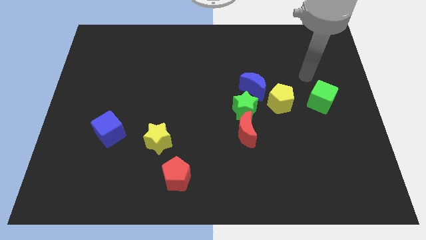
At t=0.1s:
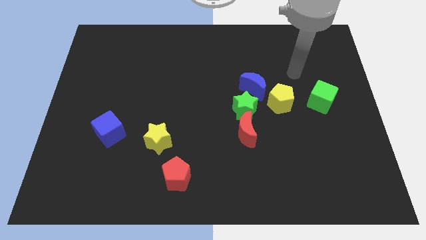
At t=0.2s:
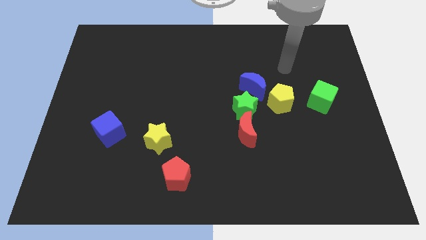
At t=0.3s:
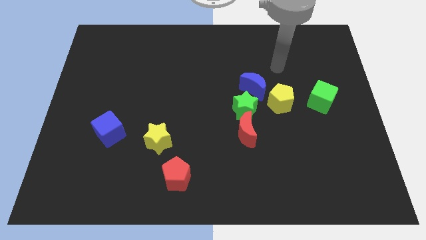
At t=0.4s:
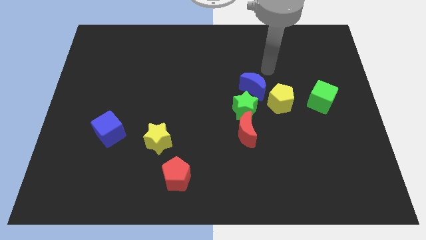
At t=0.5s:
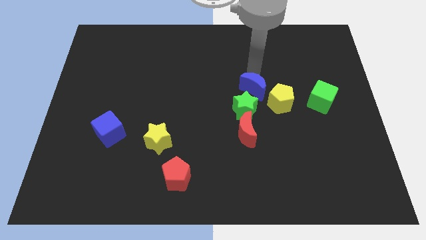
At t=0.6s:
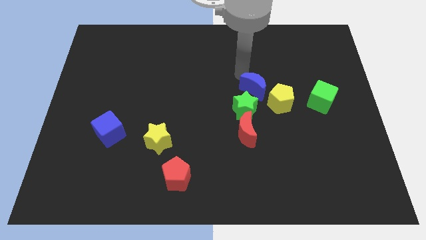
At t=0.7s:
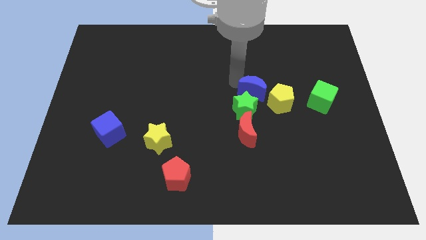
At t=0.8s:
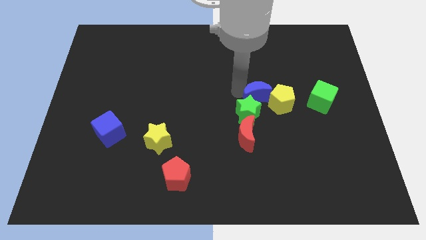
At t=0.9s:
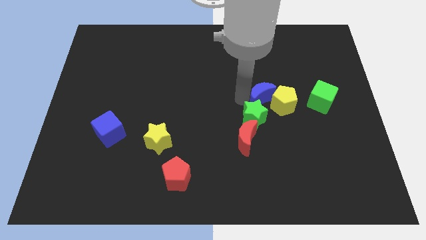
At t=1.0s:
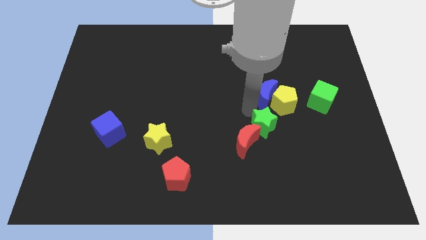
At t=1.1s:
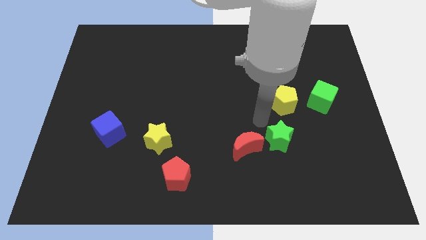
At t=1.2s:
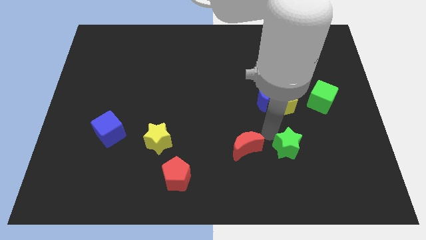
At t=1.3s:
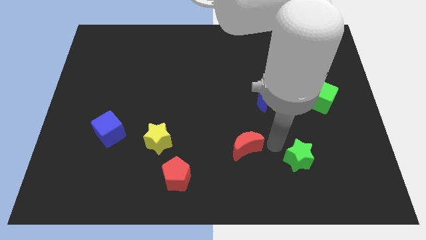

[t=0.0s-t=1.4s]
move the red moon away from the green star

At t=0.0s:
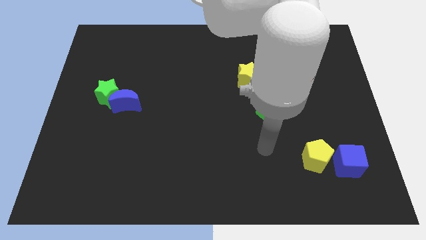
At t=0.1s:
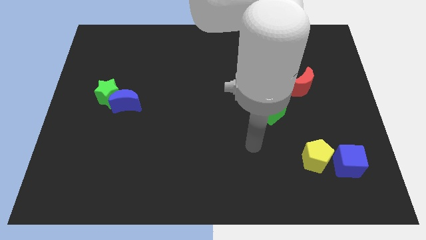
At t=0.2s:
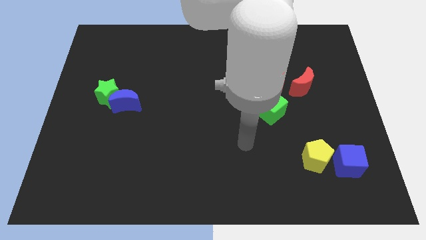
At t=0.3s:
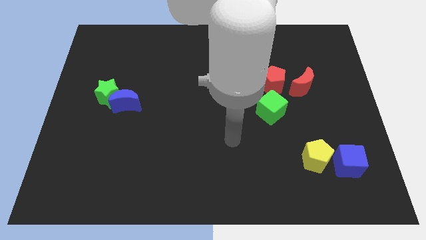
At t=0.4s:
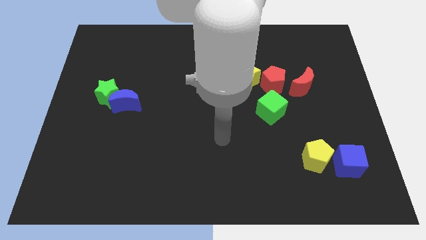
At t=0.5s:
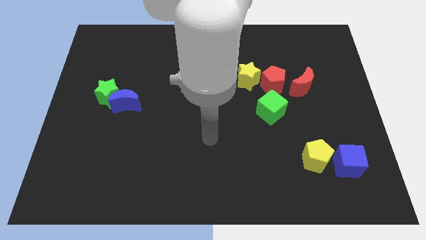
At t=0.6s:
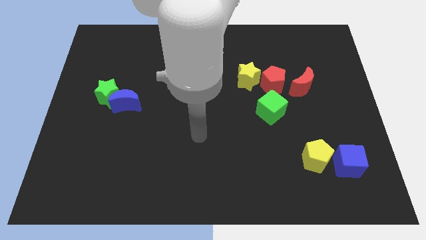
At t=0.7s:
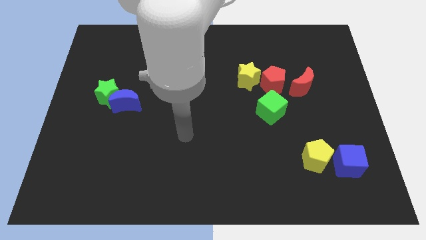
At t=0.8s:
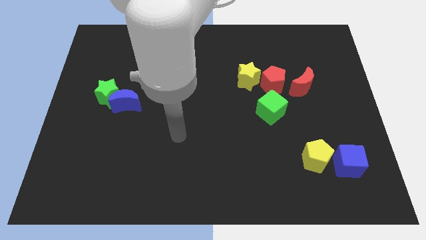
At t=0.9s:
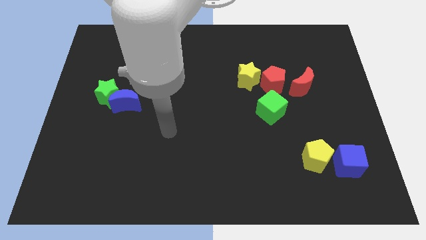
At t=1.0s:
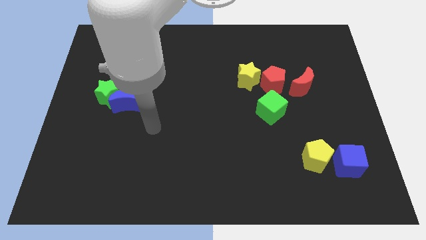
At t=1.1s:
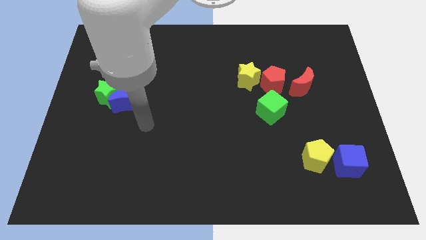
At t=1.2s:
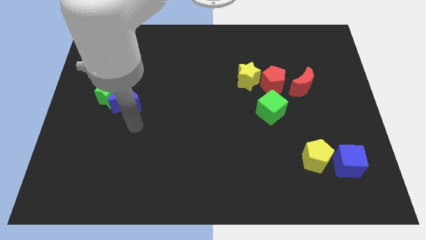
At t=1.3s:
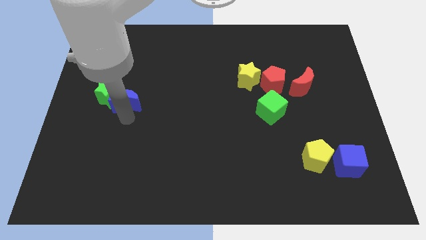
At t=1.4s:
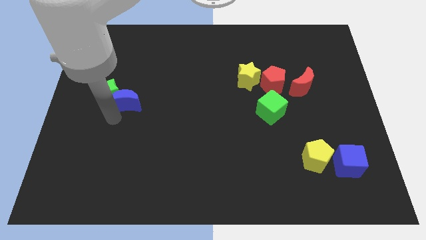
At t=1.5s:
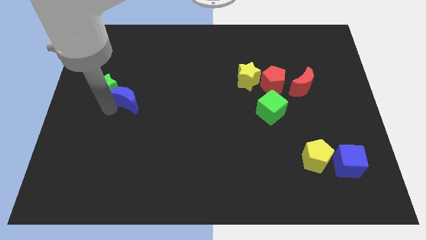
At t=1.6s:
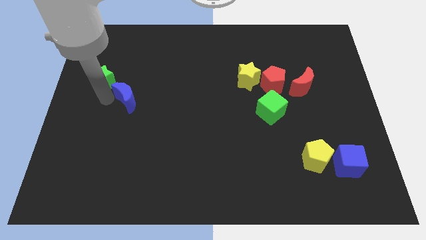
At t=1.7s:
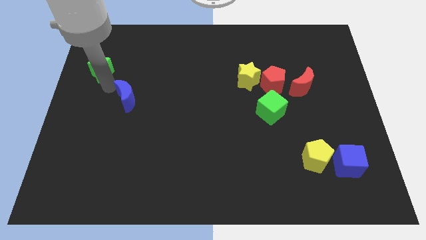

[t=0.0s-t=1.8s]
separate the blue moon from the green star

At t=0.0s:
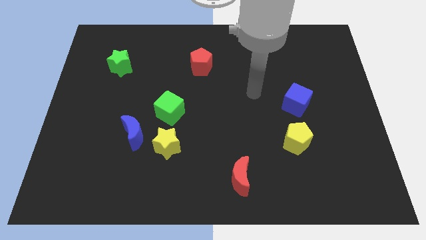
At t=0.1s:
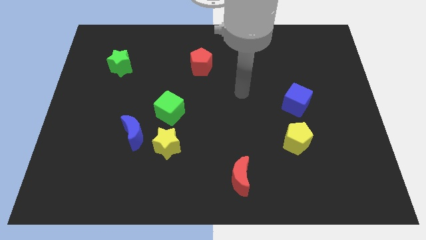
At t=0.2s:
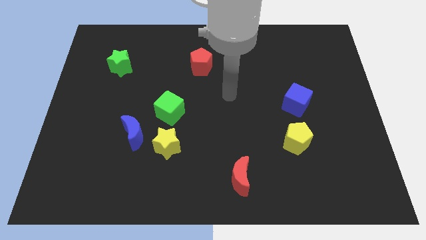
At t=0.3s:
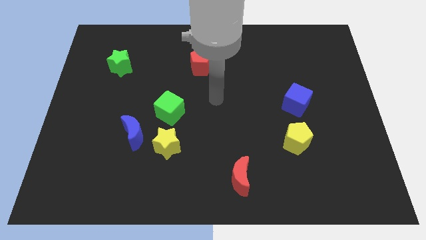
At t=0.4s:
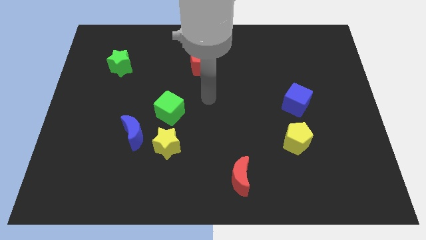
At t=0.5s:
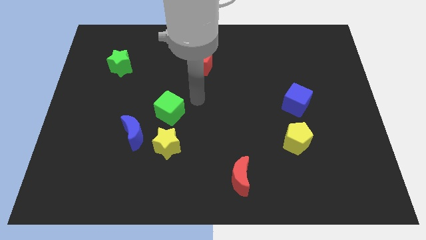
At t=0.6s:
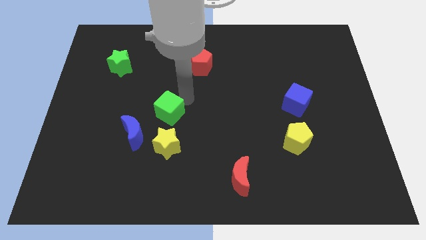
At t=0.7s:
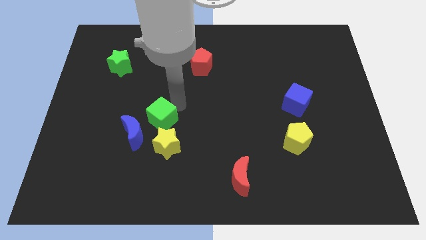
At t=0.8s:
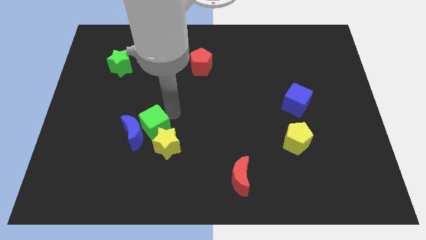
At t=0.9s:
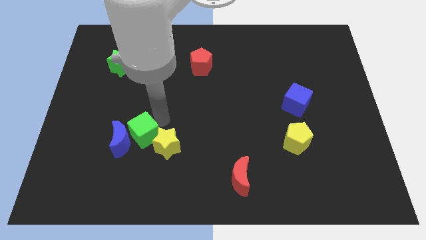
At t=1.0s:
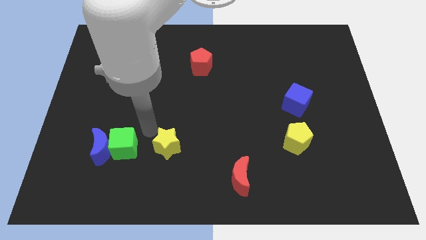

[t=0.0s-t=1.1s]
move the yellow star away from the blue moon and green cube

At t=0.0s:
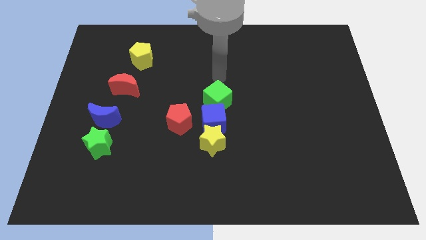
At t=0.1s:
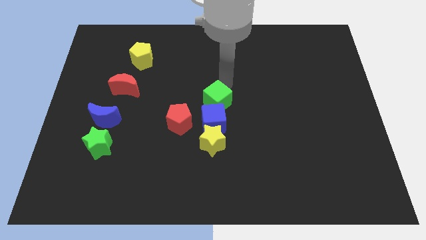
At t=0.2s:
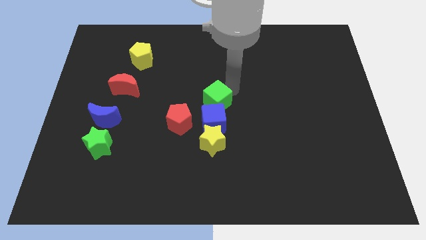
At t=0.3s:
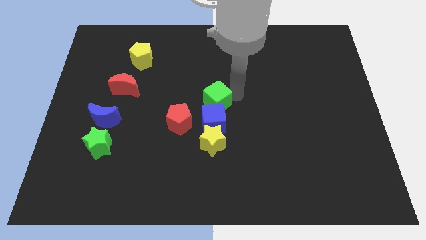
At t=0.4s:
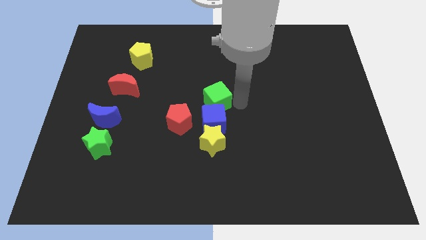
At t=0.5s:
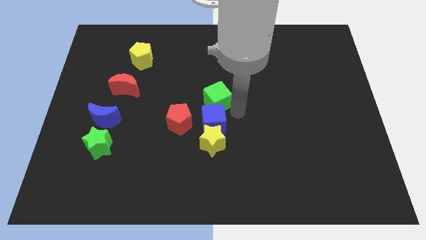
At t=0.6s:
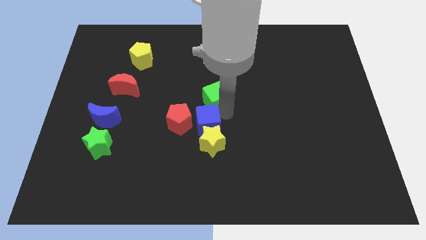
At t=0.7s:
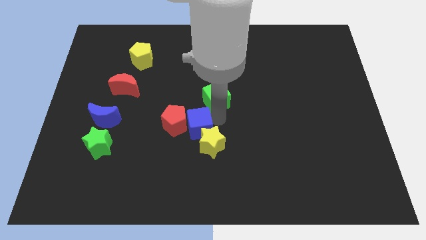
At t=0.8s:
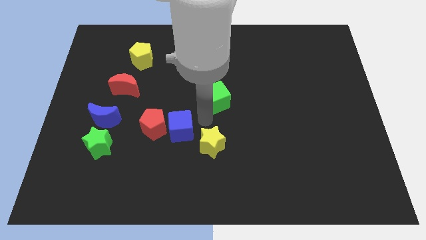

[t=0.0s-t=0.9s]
move the green cube away from the blue cube

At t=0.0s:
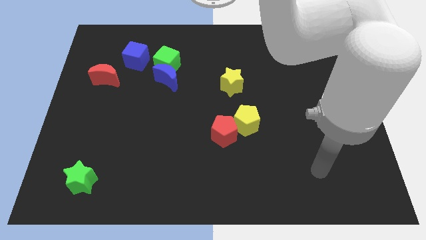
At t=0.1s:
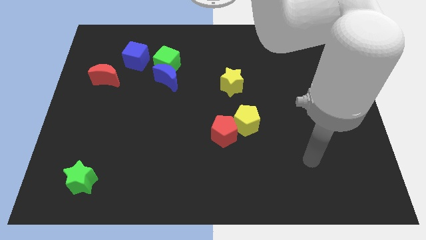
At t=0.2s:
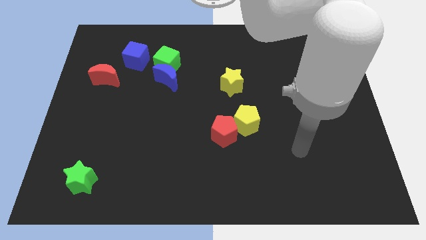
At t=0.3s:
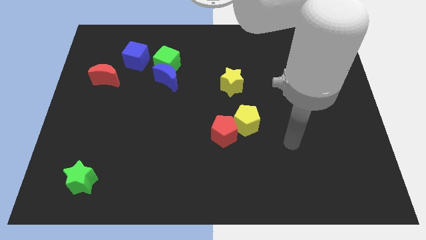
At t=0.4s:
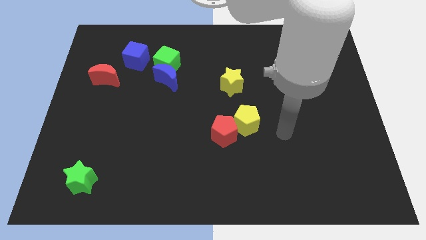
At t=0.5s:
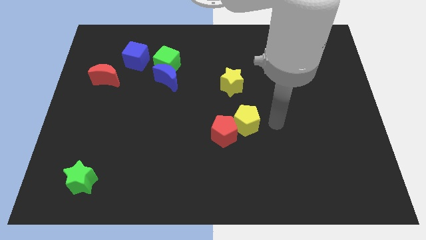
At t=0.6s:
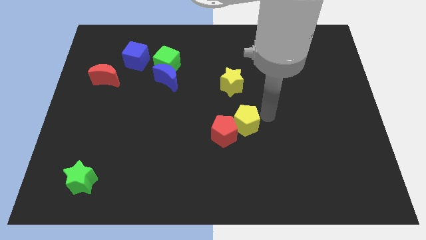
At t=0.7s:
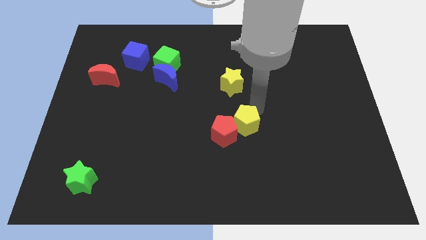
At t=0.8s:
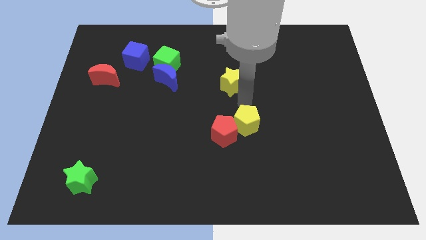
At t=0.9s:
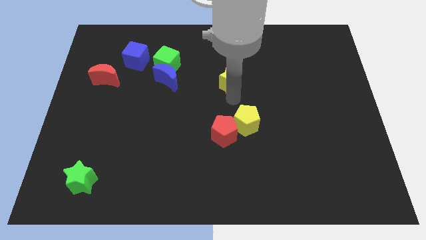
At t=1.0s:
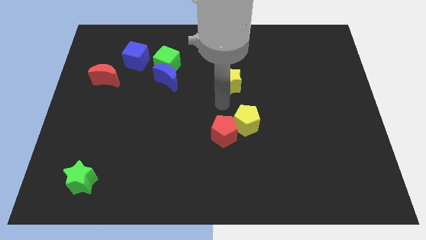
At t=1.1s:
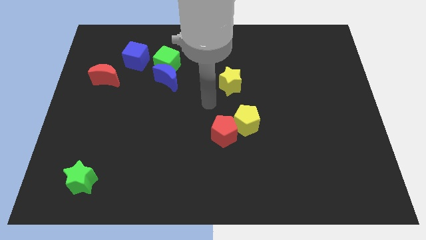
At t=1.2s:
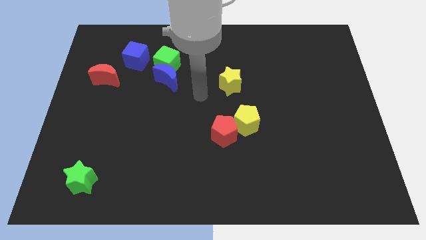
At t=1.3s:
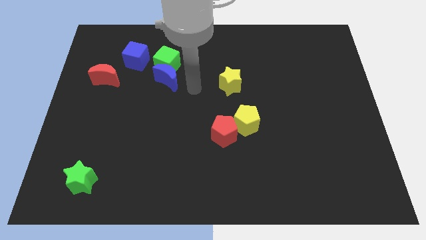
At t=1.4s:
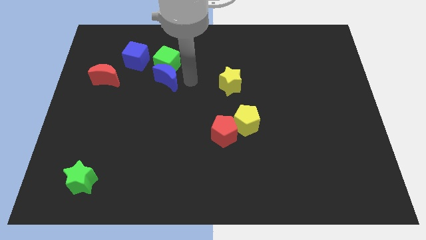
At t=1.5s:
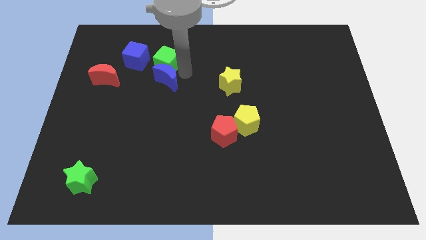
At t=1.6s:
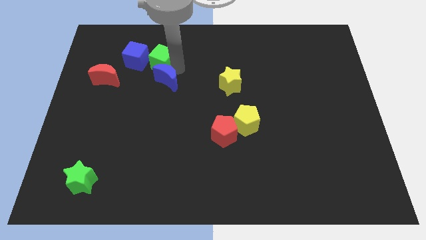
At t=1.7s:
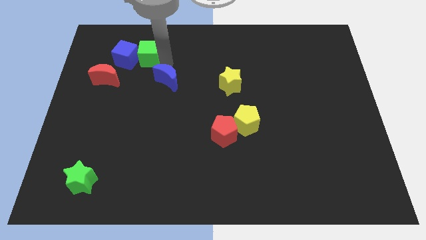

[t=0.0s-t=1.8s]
separate the blue moon from the green cube

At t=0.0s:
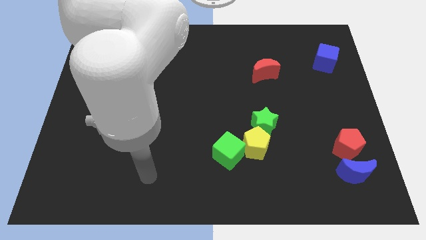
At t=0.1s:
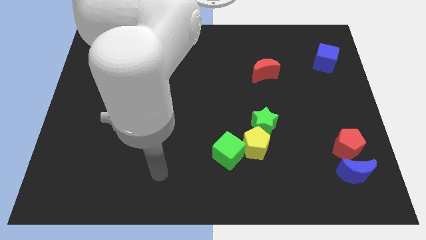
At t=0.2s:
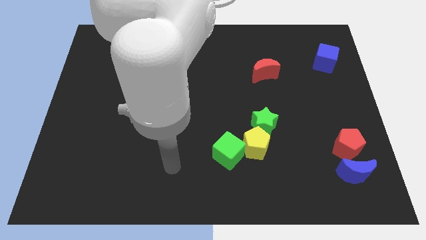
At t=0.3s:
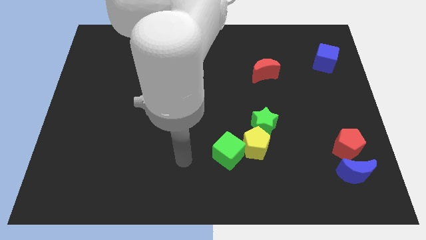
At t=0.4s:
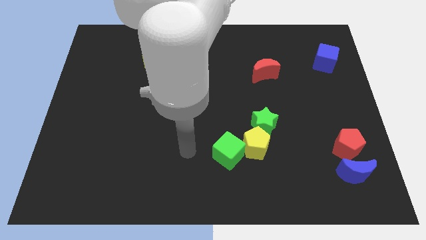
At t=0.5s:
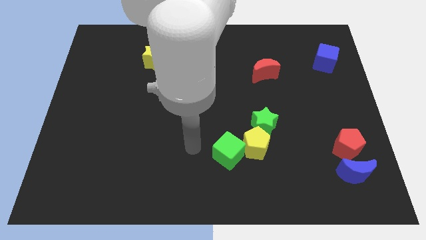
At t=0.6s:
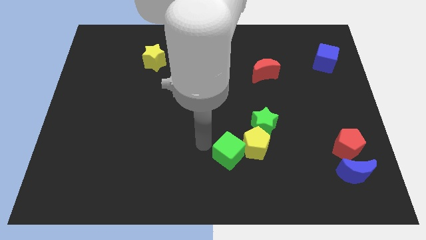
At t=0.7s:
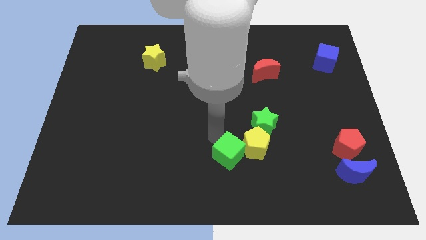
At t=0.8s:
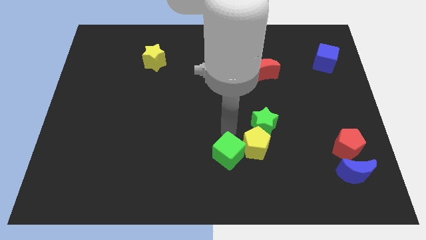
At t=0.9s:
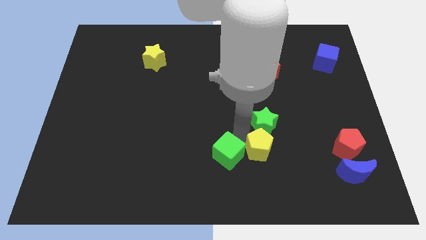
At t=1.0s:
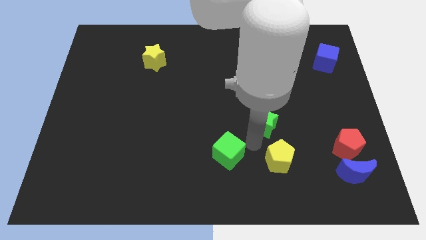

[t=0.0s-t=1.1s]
pull the green cube apart from the yellow pentagon

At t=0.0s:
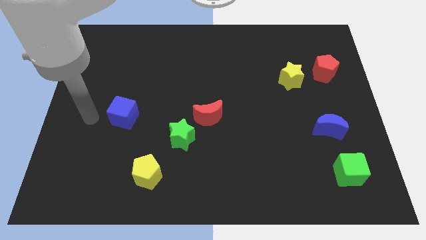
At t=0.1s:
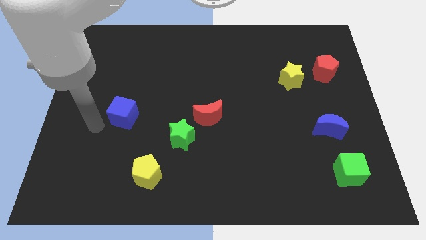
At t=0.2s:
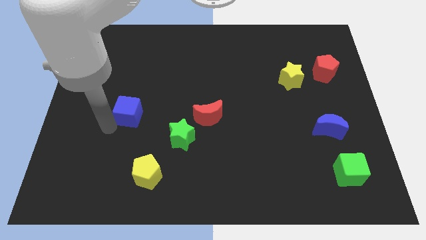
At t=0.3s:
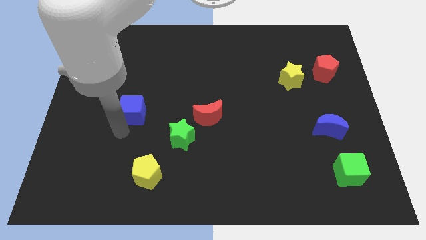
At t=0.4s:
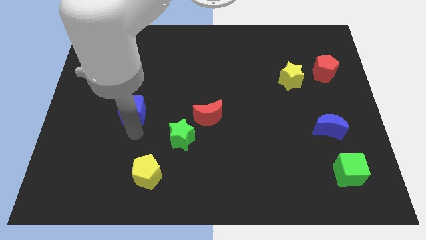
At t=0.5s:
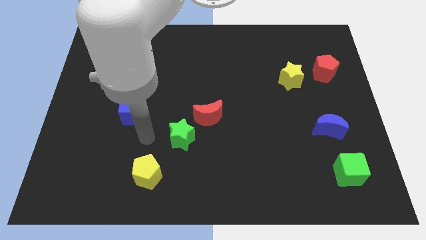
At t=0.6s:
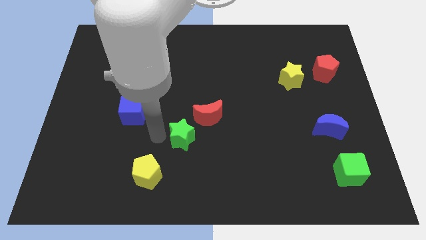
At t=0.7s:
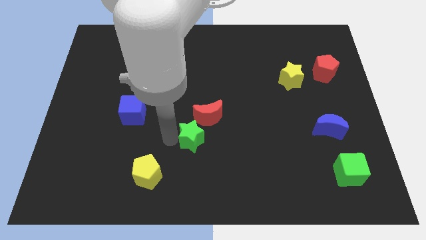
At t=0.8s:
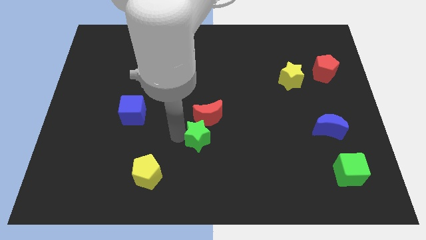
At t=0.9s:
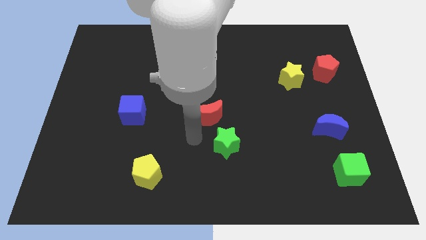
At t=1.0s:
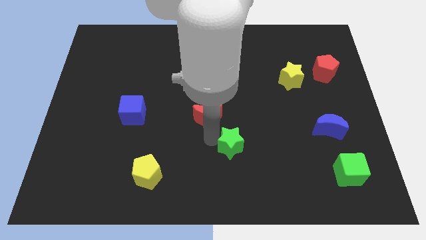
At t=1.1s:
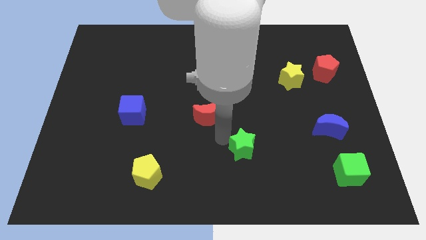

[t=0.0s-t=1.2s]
pull the red moon apart from the green star
